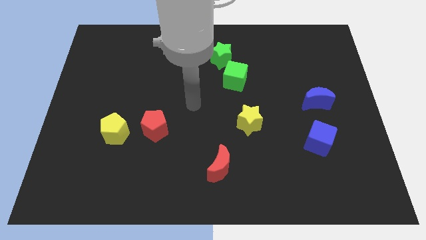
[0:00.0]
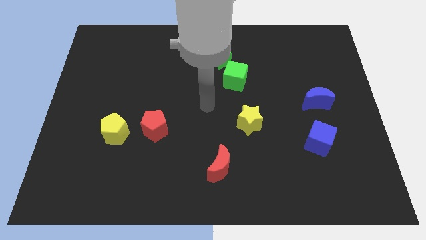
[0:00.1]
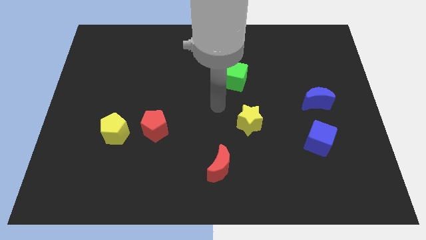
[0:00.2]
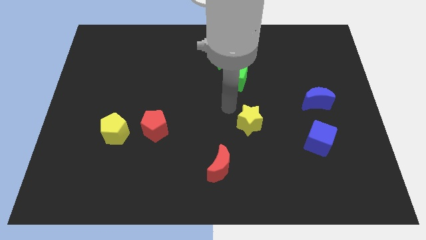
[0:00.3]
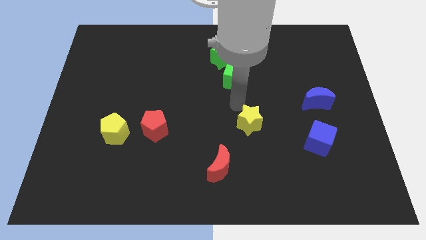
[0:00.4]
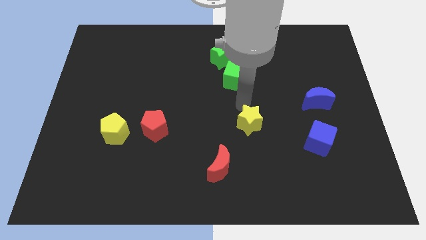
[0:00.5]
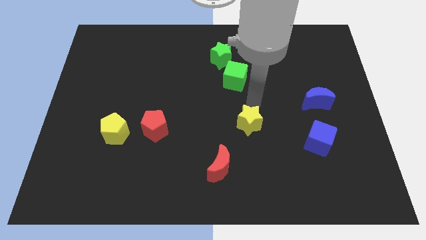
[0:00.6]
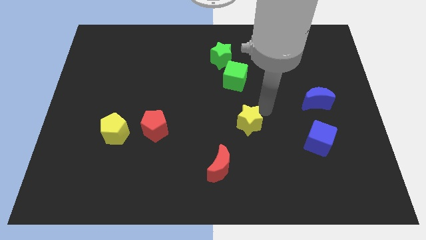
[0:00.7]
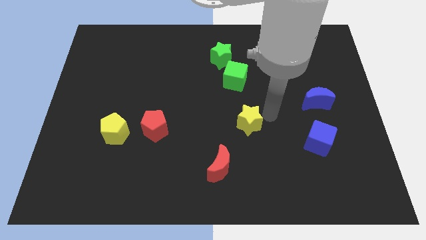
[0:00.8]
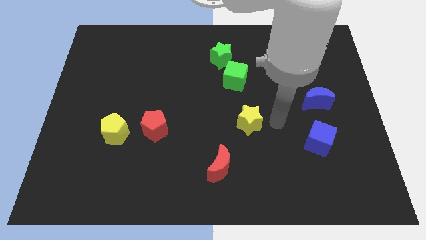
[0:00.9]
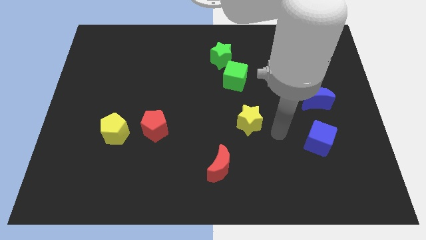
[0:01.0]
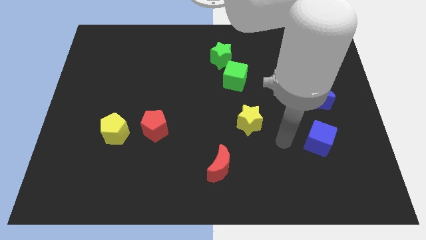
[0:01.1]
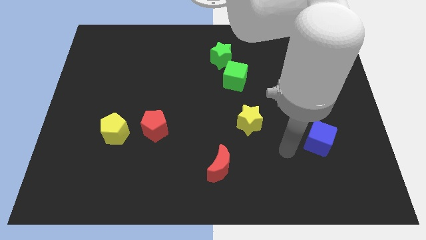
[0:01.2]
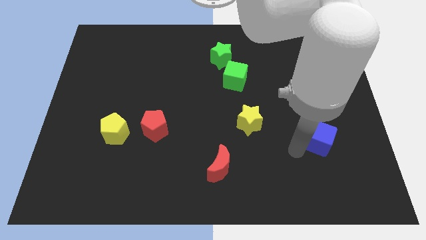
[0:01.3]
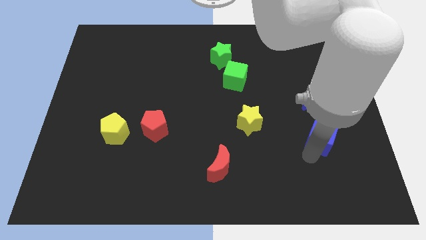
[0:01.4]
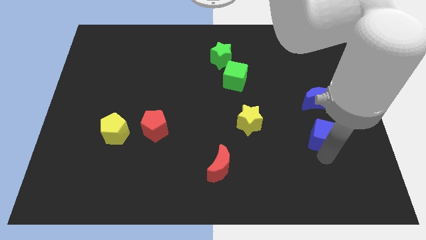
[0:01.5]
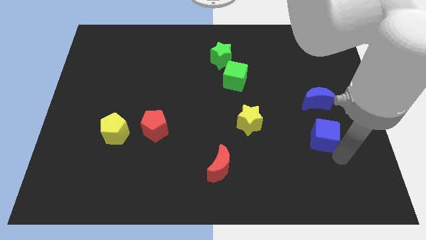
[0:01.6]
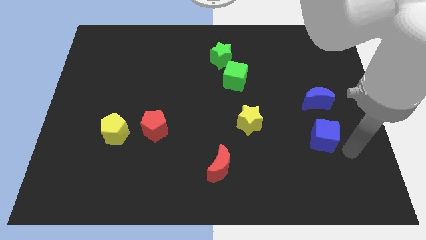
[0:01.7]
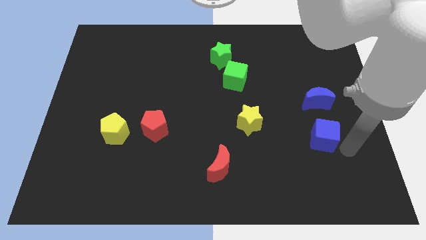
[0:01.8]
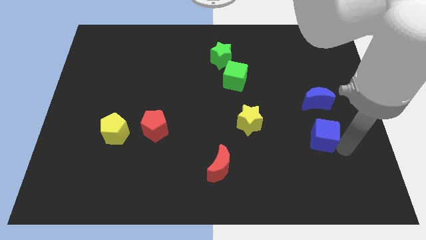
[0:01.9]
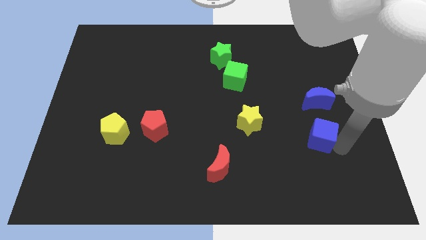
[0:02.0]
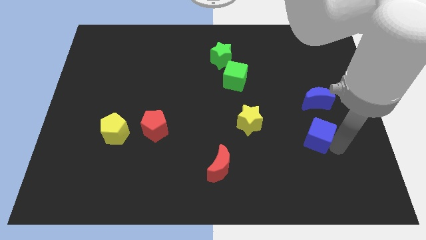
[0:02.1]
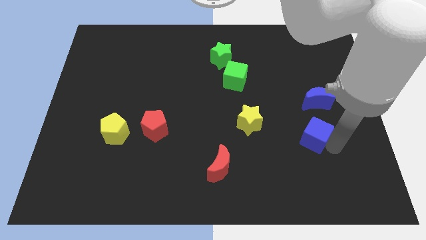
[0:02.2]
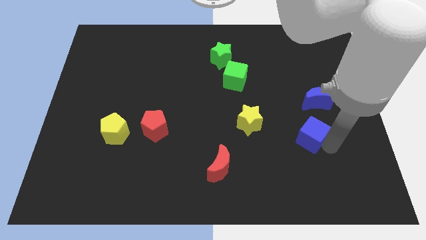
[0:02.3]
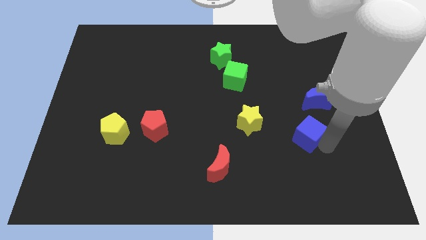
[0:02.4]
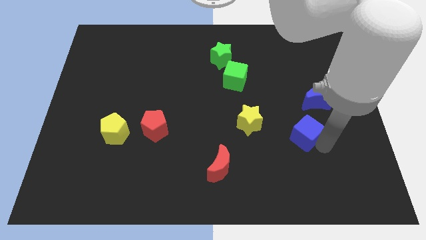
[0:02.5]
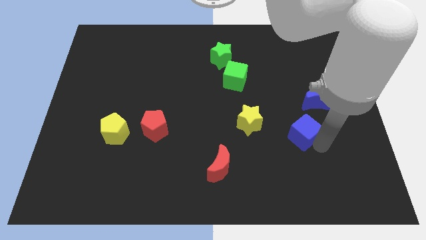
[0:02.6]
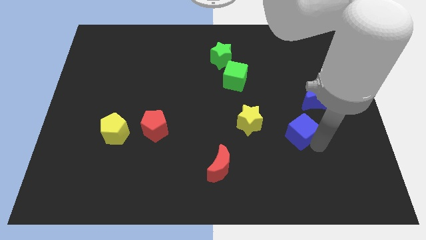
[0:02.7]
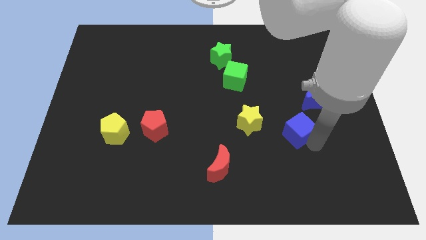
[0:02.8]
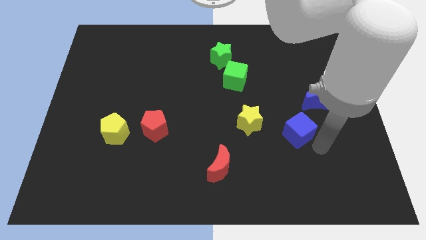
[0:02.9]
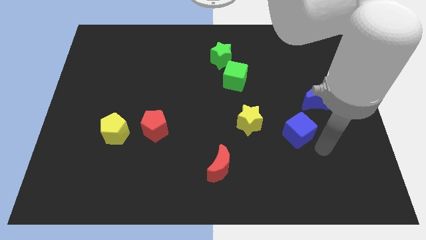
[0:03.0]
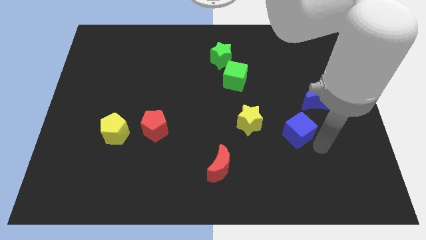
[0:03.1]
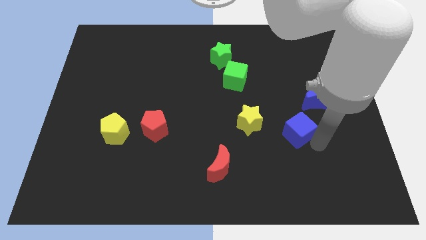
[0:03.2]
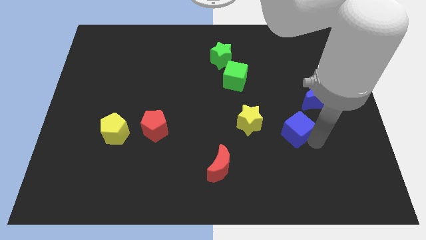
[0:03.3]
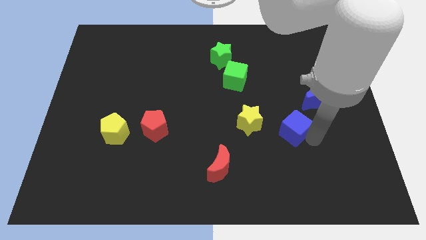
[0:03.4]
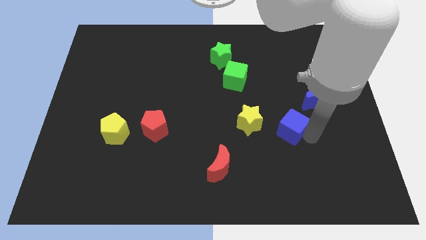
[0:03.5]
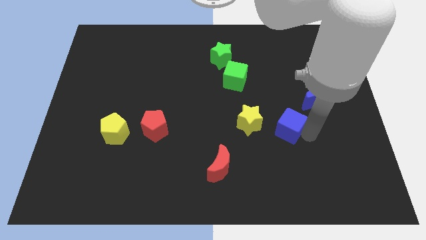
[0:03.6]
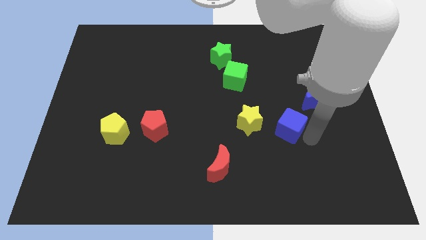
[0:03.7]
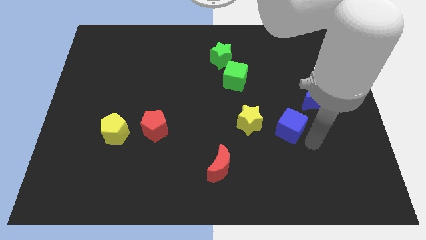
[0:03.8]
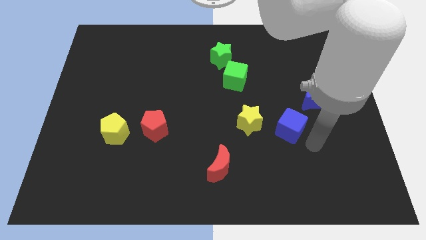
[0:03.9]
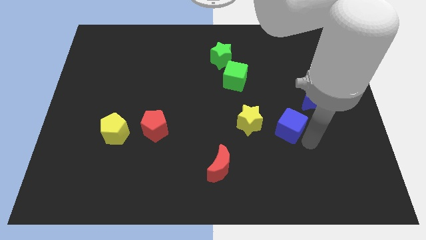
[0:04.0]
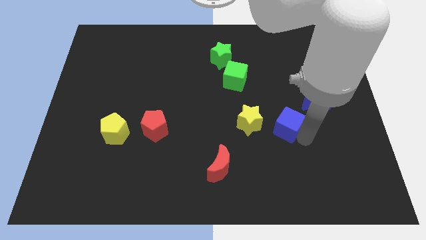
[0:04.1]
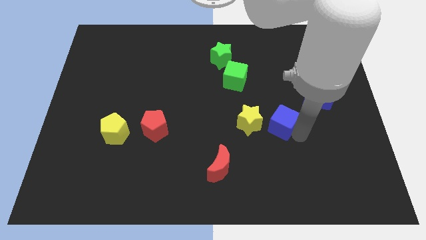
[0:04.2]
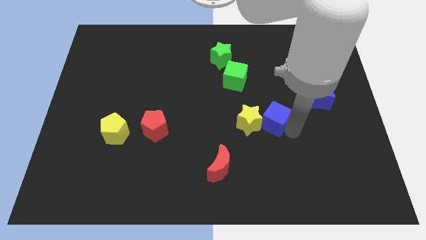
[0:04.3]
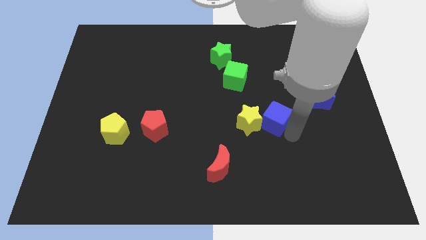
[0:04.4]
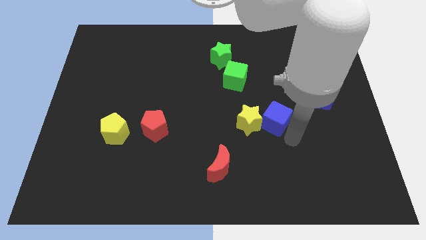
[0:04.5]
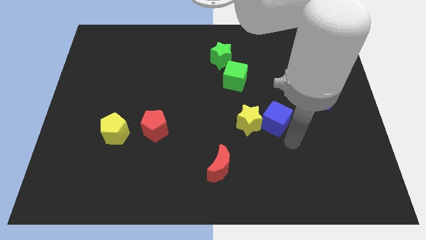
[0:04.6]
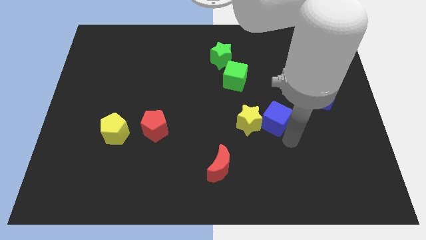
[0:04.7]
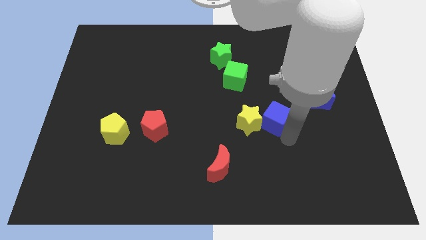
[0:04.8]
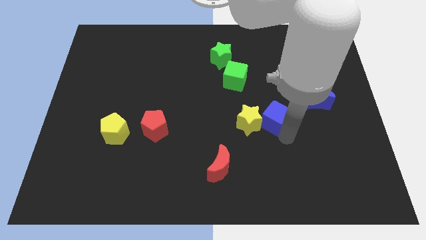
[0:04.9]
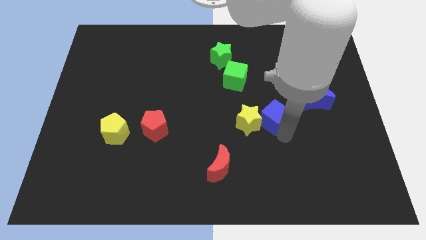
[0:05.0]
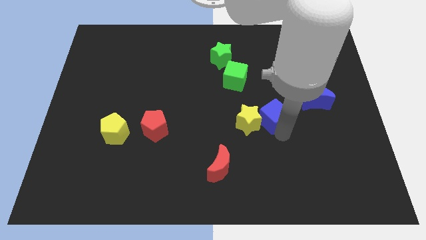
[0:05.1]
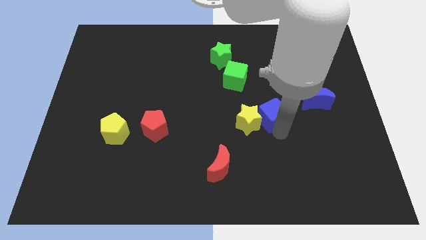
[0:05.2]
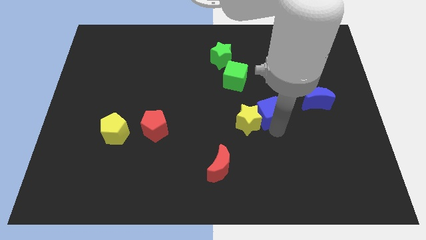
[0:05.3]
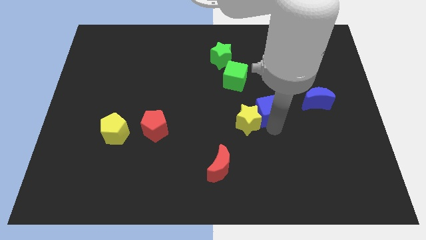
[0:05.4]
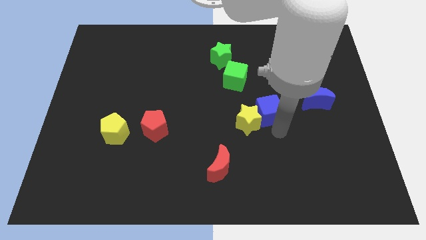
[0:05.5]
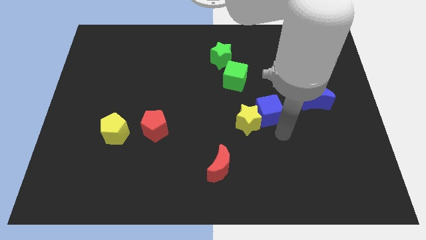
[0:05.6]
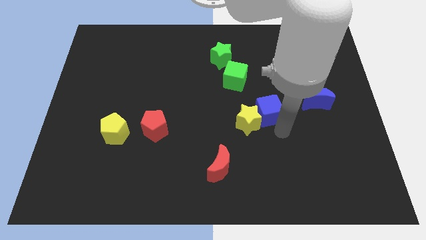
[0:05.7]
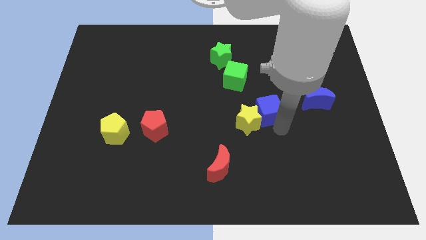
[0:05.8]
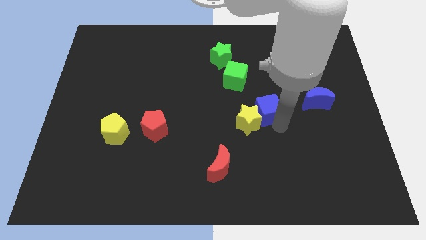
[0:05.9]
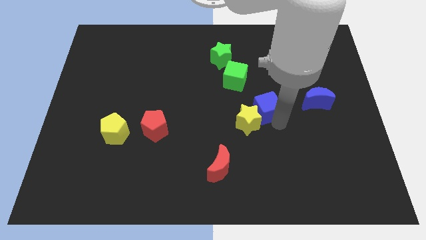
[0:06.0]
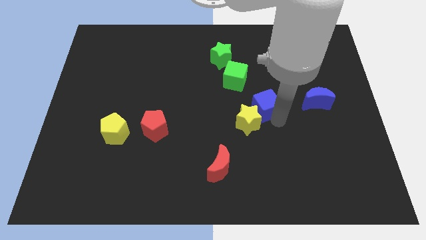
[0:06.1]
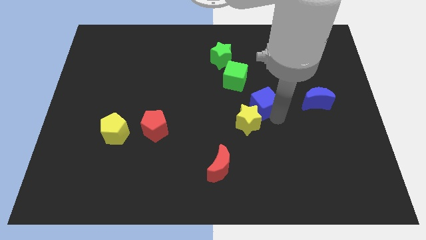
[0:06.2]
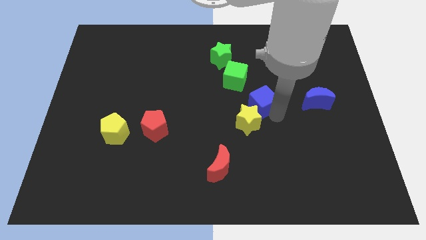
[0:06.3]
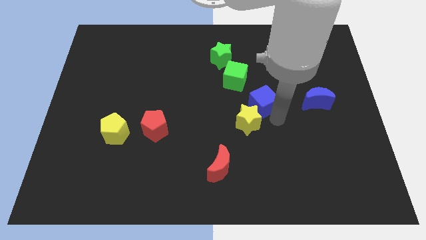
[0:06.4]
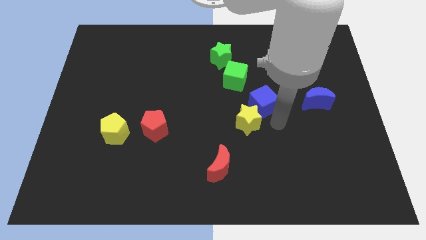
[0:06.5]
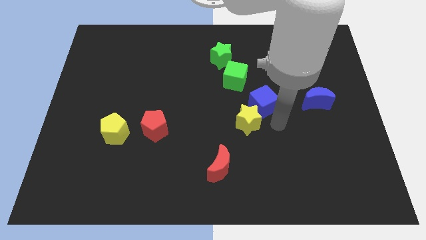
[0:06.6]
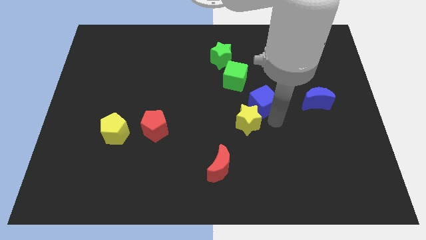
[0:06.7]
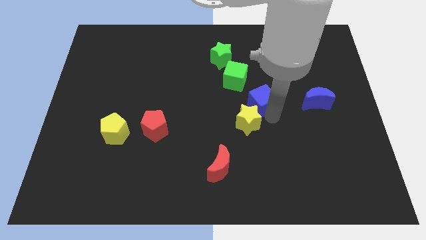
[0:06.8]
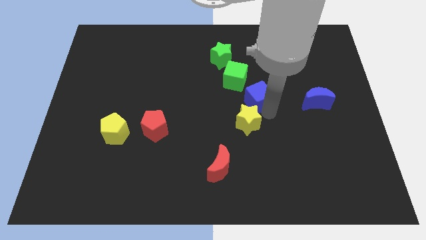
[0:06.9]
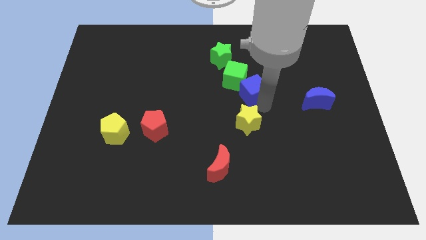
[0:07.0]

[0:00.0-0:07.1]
slide the blue cube close to the green cube

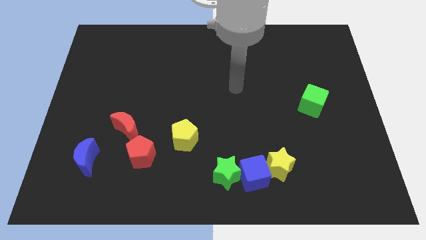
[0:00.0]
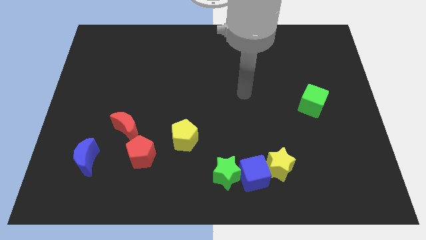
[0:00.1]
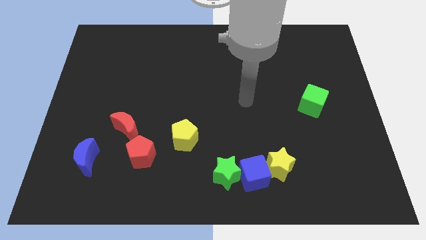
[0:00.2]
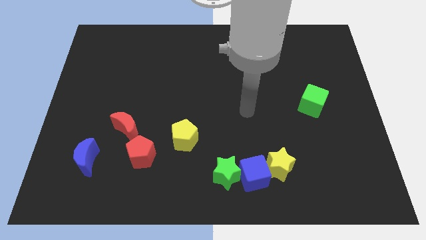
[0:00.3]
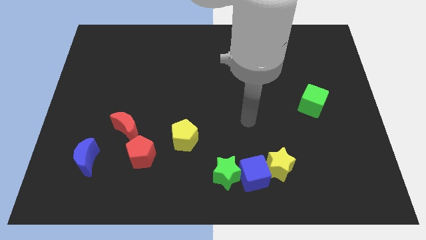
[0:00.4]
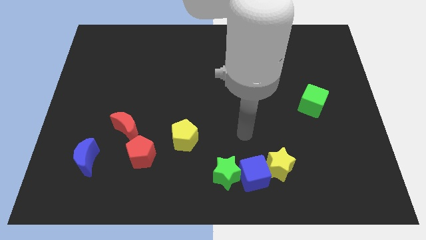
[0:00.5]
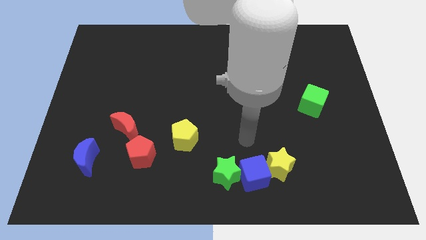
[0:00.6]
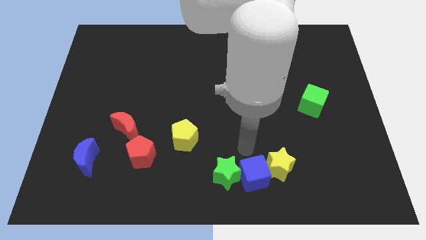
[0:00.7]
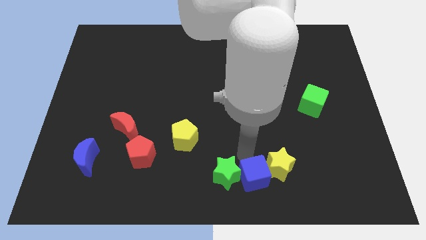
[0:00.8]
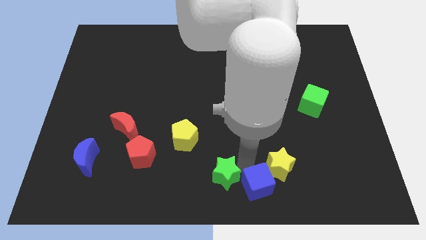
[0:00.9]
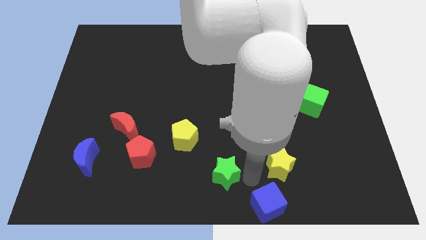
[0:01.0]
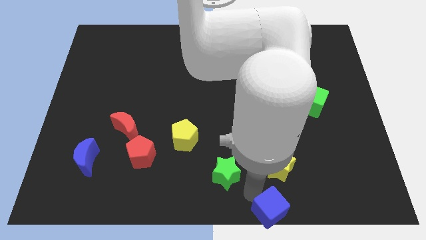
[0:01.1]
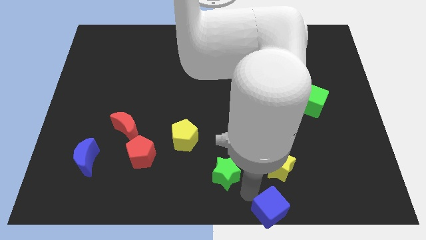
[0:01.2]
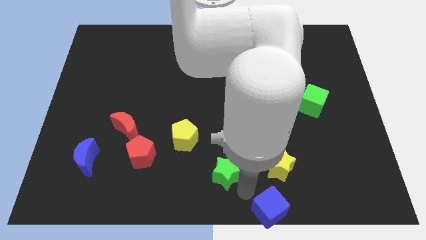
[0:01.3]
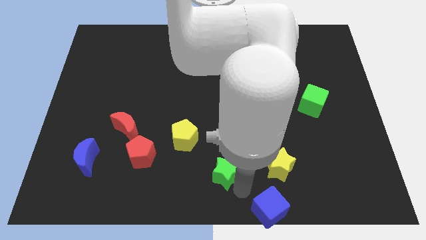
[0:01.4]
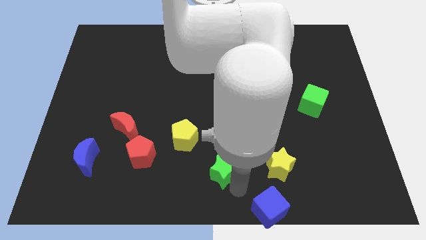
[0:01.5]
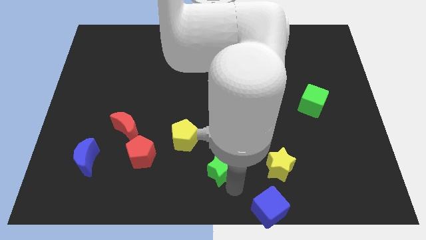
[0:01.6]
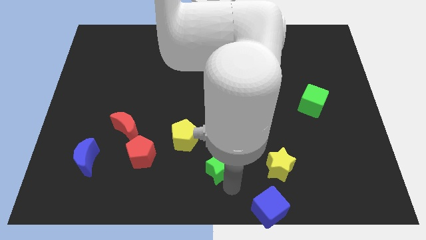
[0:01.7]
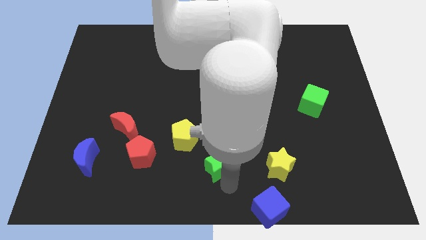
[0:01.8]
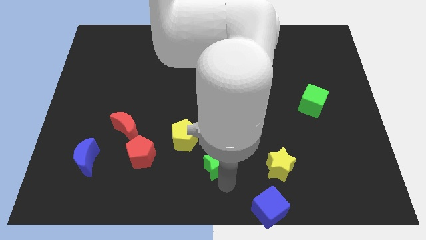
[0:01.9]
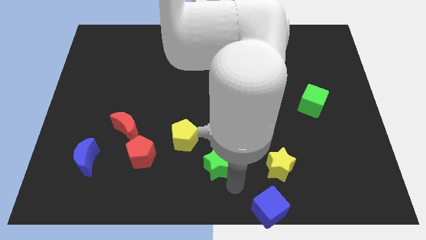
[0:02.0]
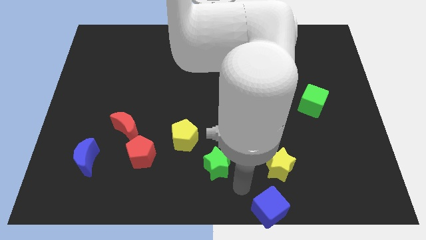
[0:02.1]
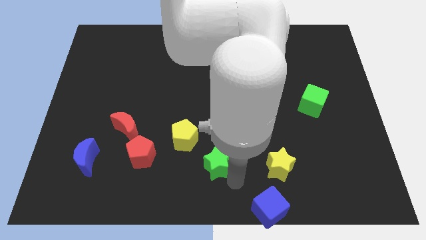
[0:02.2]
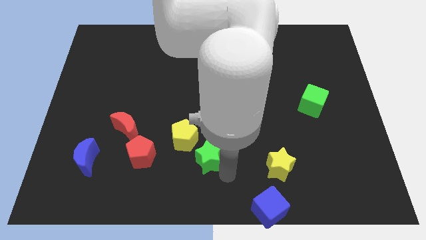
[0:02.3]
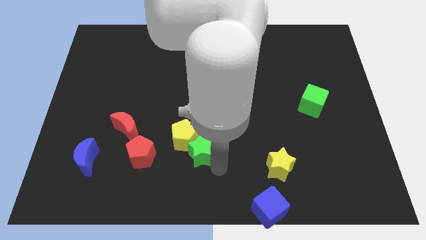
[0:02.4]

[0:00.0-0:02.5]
put the green star towards the yellow pentagon
